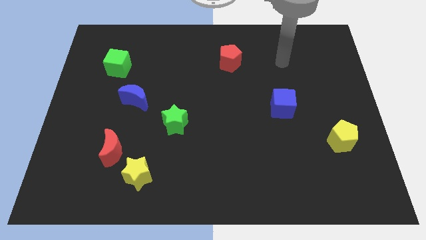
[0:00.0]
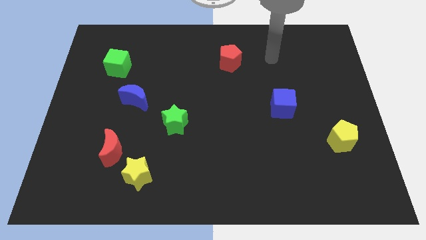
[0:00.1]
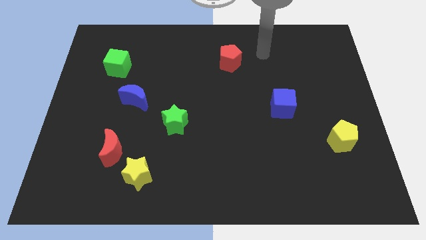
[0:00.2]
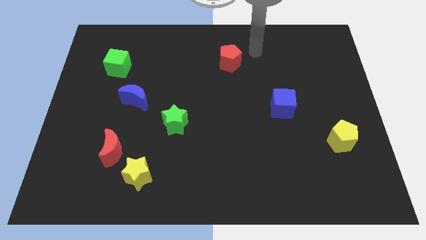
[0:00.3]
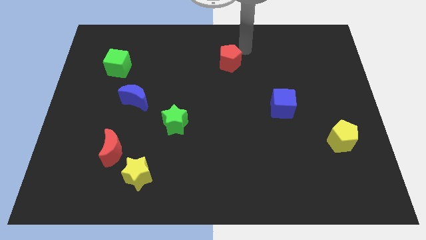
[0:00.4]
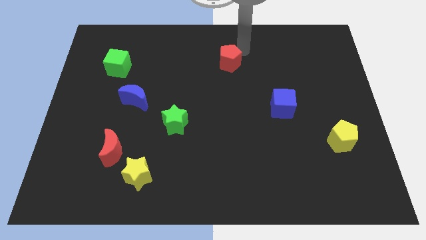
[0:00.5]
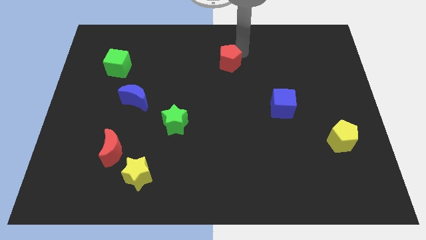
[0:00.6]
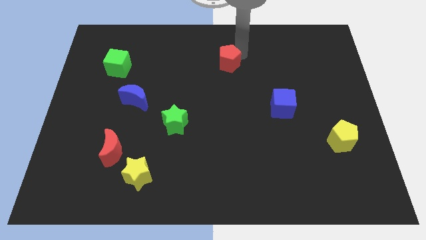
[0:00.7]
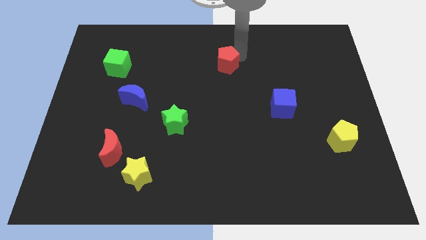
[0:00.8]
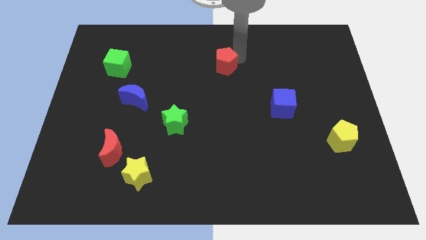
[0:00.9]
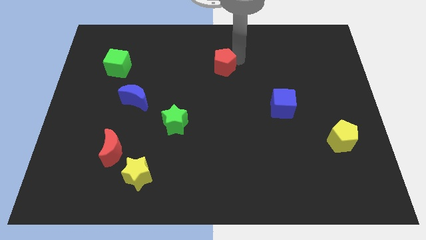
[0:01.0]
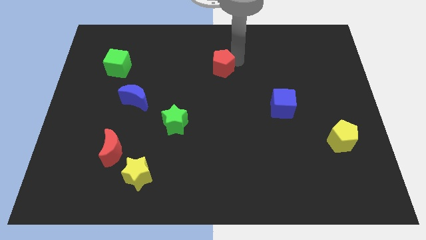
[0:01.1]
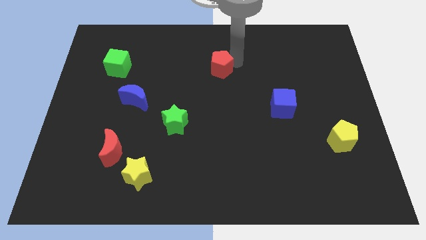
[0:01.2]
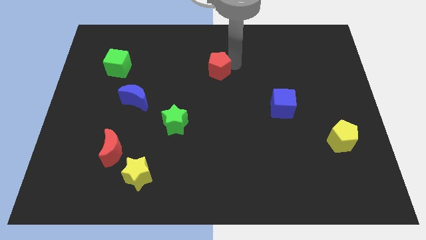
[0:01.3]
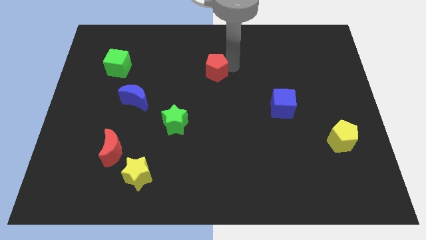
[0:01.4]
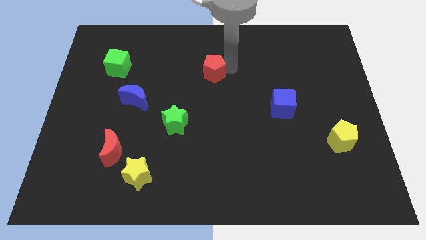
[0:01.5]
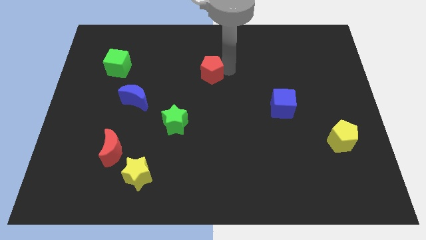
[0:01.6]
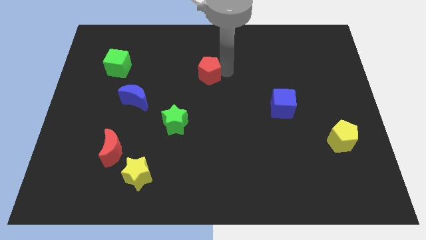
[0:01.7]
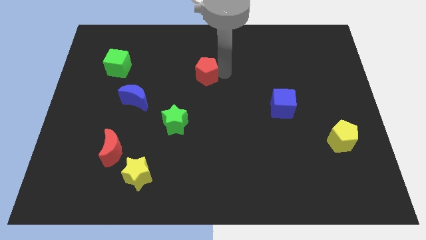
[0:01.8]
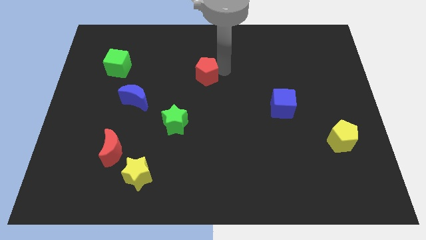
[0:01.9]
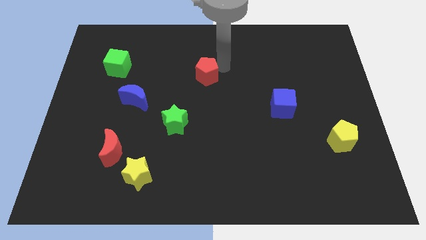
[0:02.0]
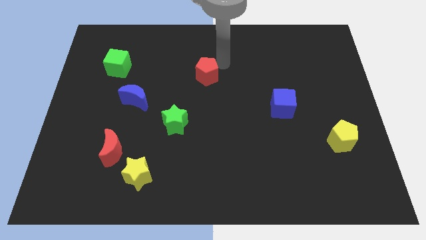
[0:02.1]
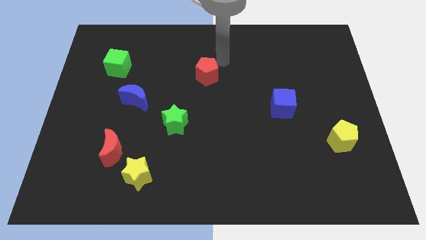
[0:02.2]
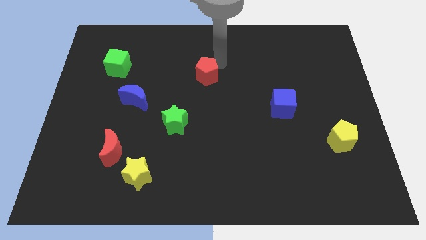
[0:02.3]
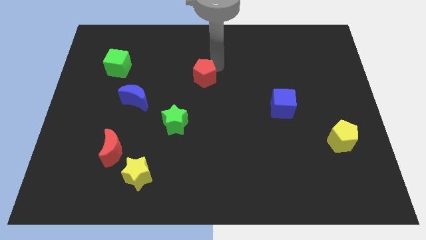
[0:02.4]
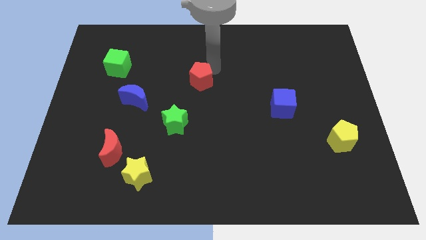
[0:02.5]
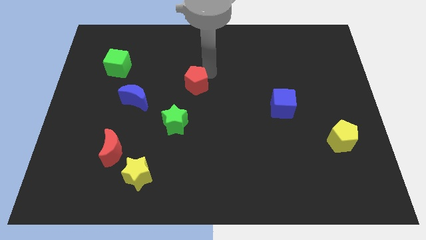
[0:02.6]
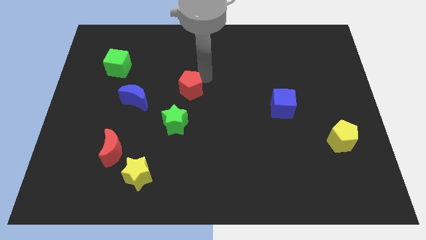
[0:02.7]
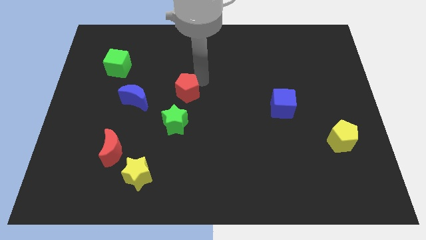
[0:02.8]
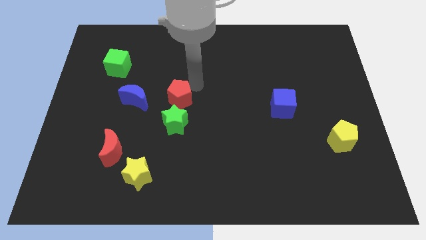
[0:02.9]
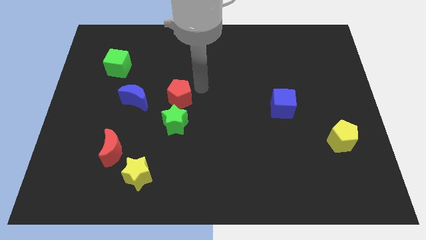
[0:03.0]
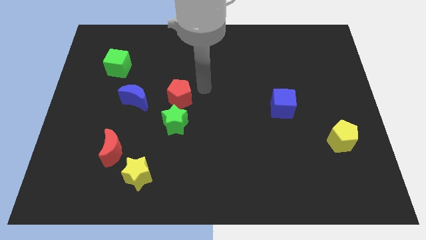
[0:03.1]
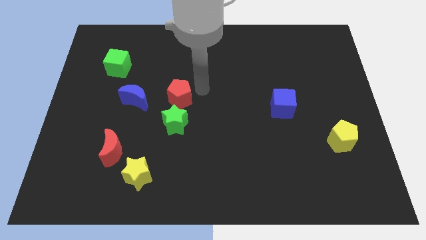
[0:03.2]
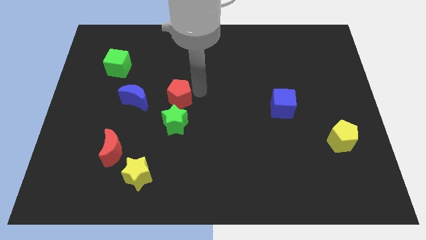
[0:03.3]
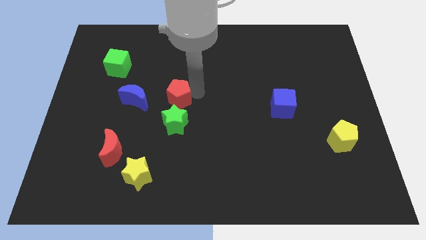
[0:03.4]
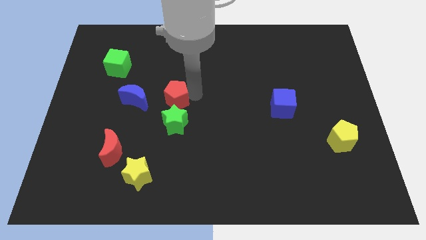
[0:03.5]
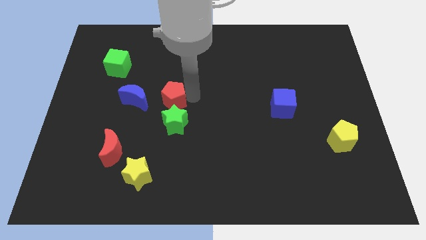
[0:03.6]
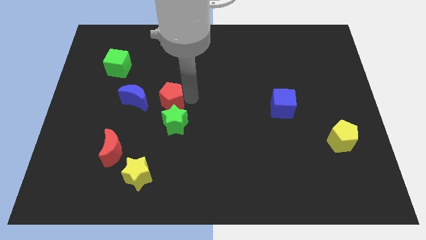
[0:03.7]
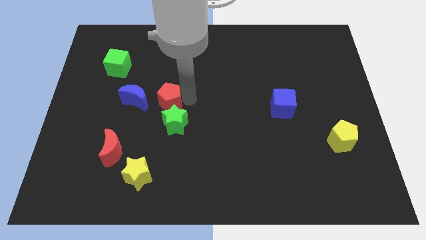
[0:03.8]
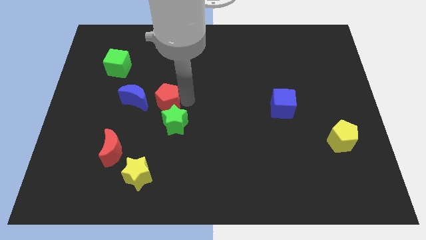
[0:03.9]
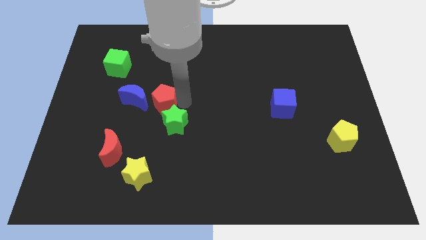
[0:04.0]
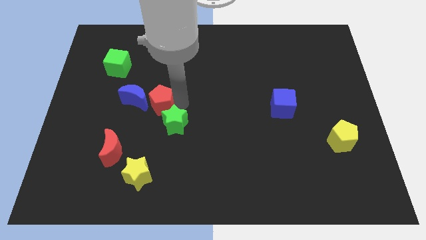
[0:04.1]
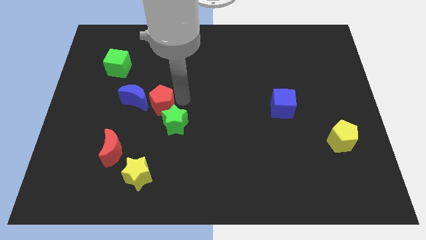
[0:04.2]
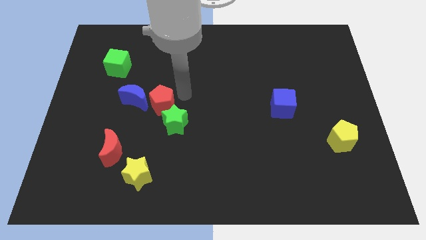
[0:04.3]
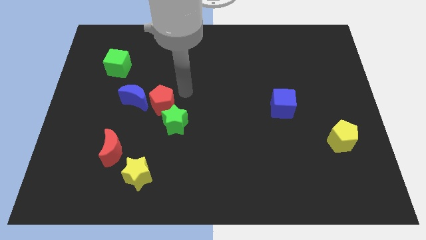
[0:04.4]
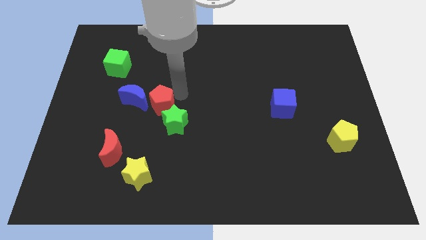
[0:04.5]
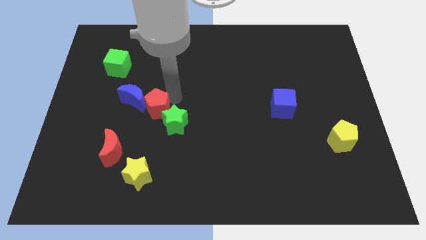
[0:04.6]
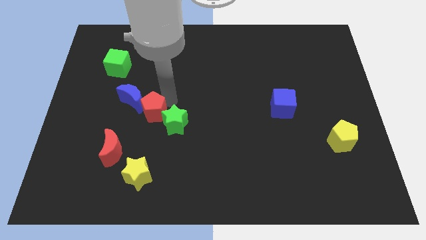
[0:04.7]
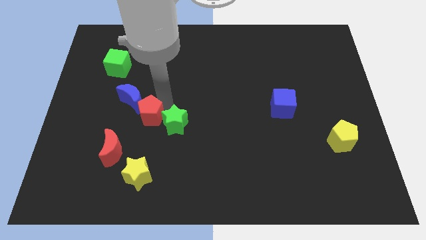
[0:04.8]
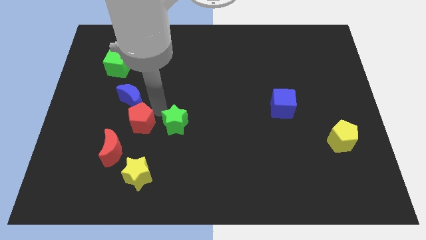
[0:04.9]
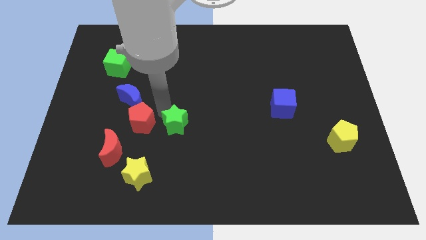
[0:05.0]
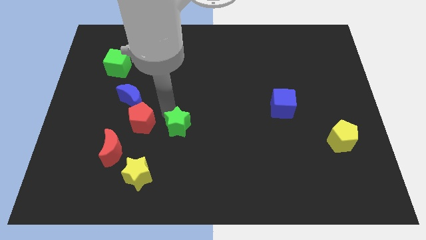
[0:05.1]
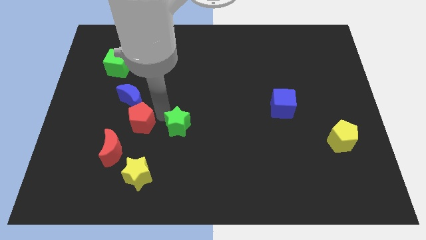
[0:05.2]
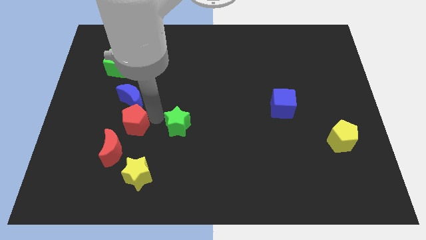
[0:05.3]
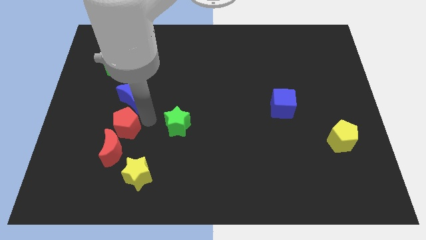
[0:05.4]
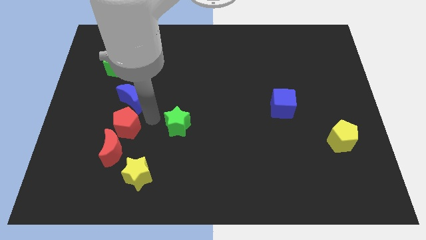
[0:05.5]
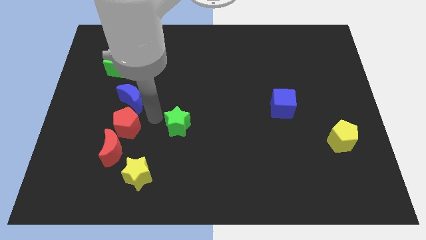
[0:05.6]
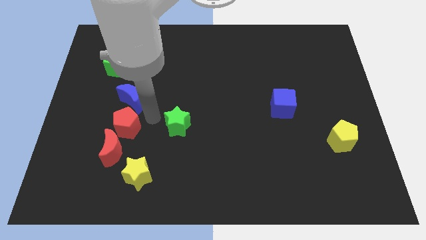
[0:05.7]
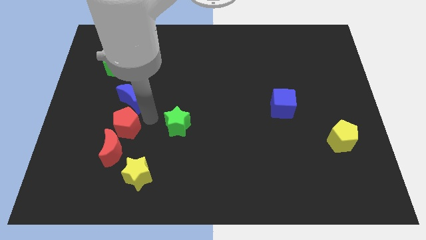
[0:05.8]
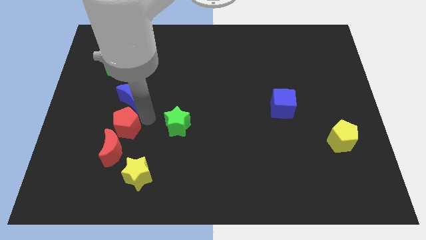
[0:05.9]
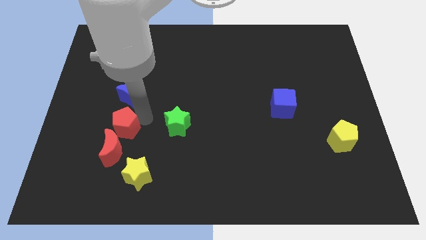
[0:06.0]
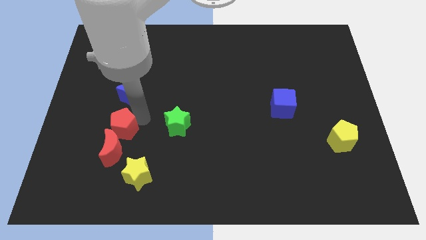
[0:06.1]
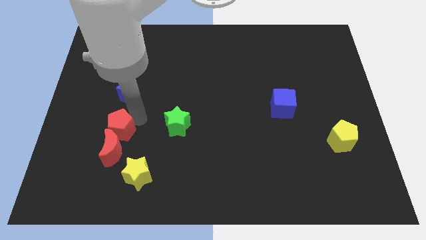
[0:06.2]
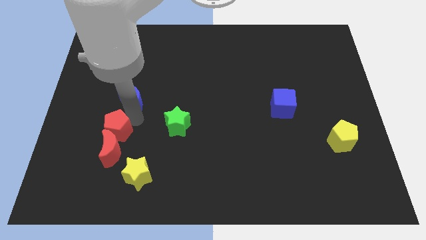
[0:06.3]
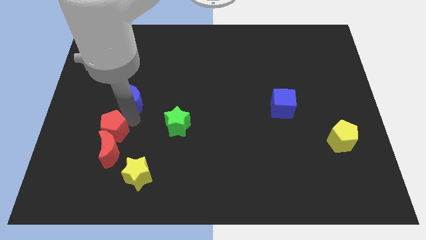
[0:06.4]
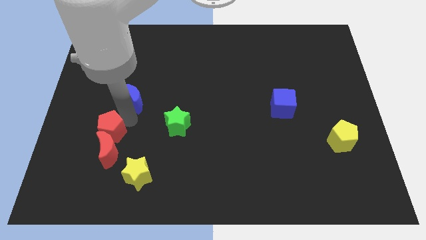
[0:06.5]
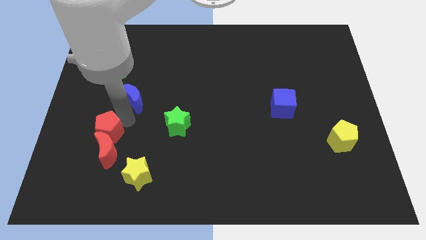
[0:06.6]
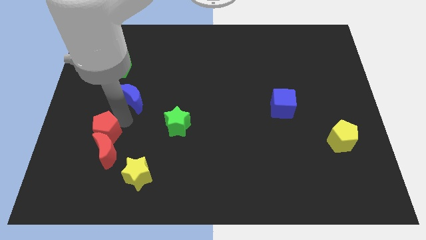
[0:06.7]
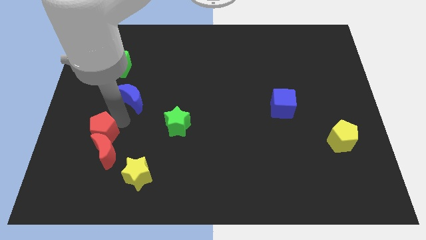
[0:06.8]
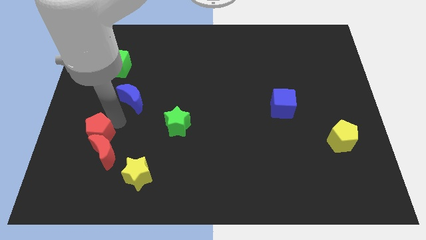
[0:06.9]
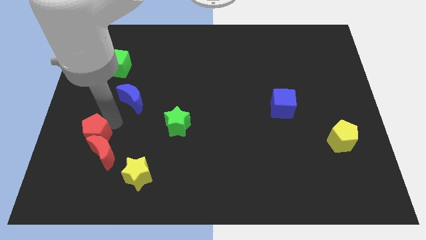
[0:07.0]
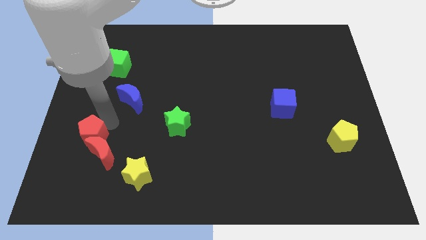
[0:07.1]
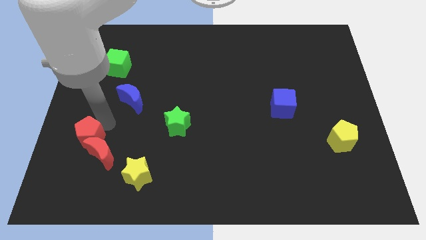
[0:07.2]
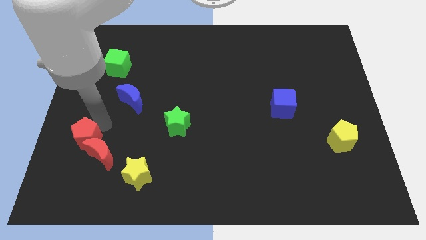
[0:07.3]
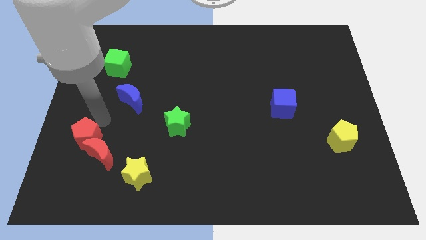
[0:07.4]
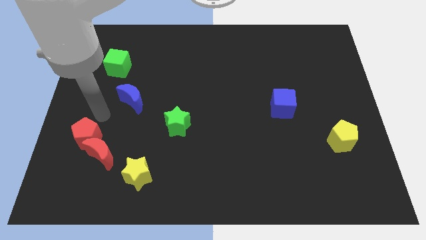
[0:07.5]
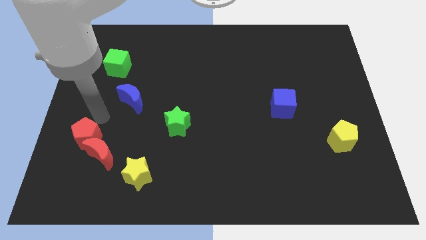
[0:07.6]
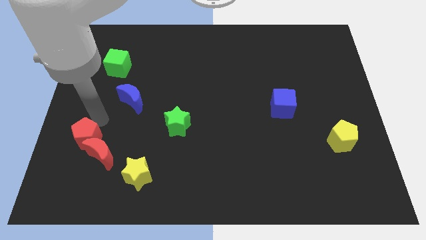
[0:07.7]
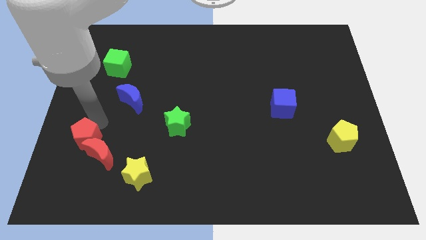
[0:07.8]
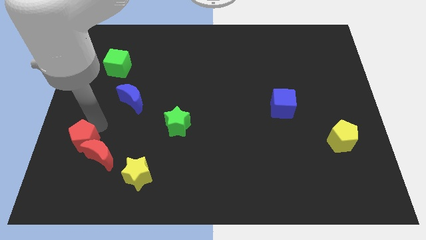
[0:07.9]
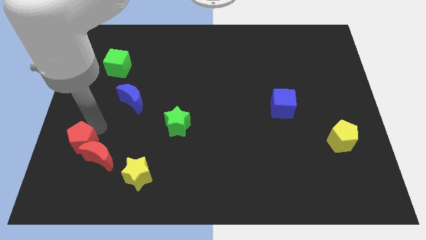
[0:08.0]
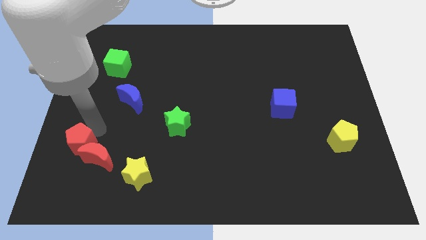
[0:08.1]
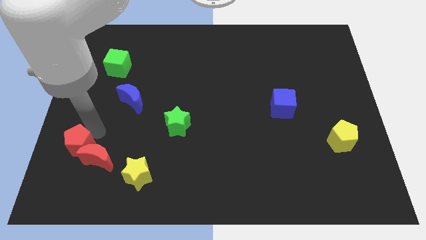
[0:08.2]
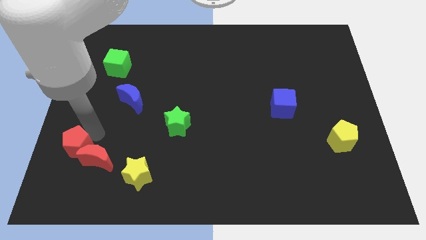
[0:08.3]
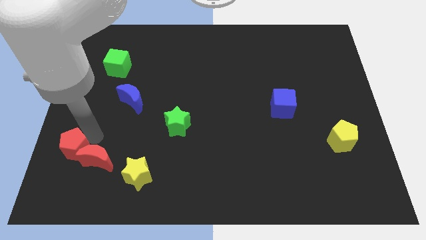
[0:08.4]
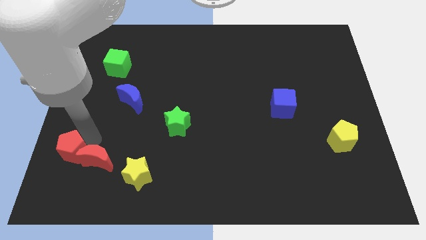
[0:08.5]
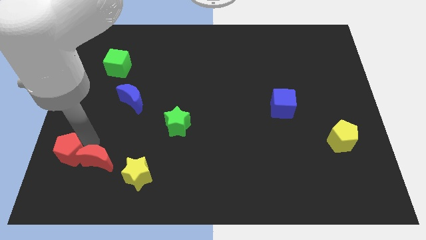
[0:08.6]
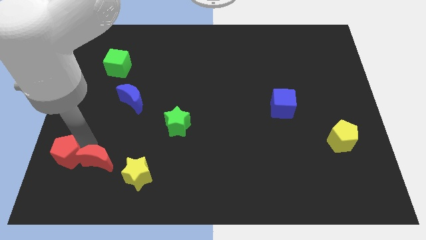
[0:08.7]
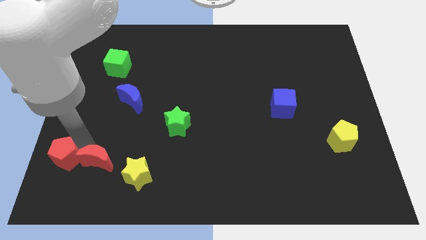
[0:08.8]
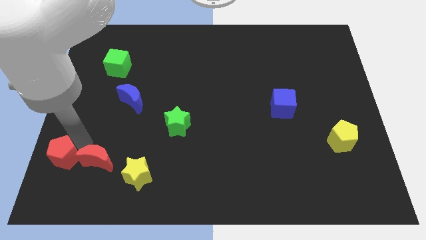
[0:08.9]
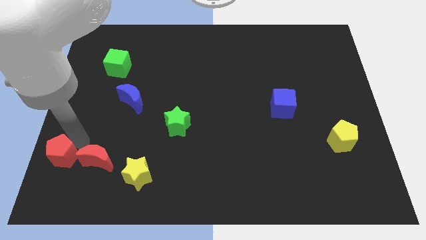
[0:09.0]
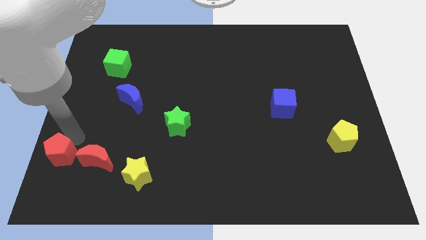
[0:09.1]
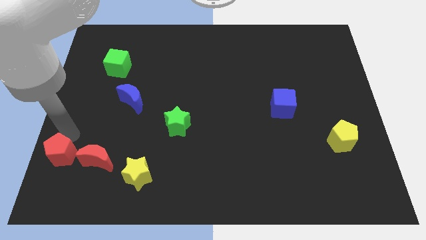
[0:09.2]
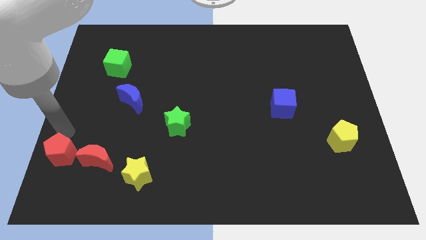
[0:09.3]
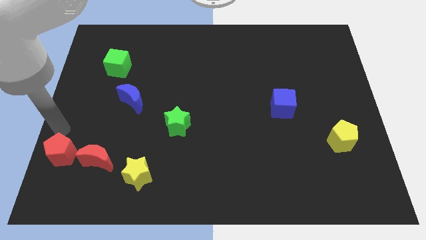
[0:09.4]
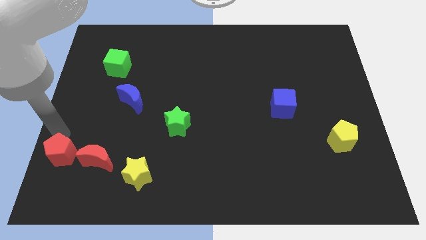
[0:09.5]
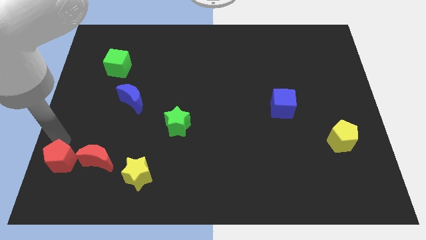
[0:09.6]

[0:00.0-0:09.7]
put the red pentagon to the bottom left of the board
